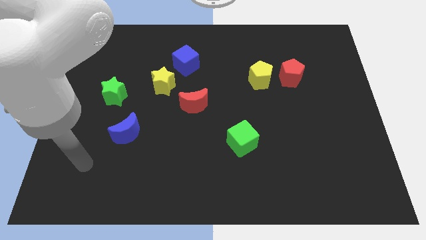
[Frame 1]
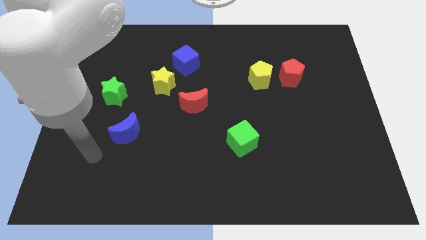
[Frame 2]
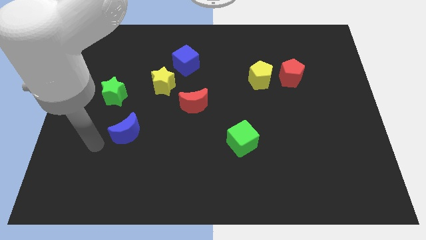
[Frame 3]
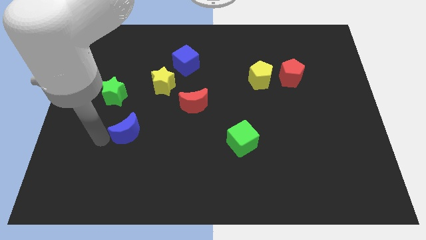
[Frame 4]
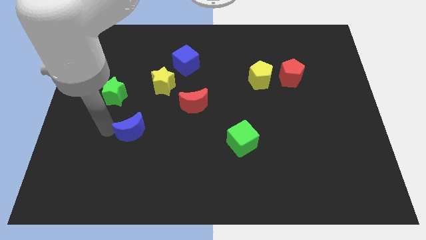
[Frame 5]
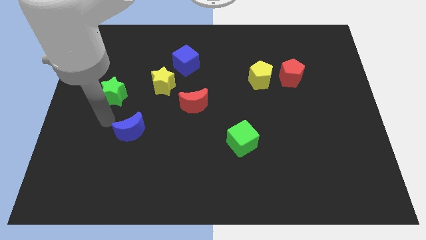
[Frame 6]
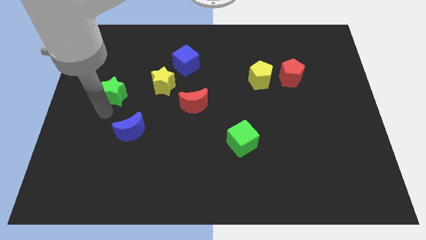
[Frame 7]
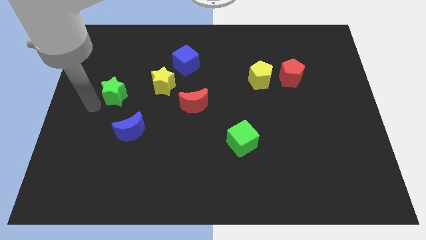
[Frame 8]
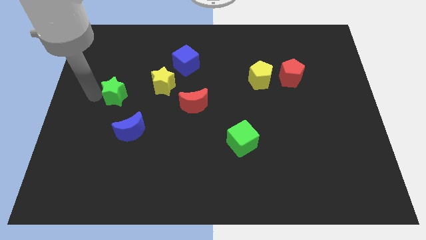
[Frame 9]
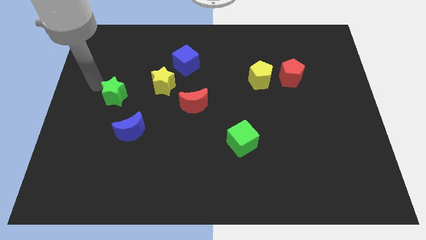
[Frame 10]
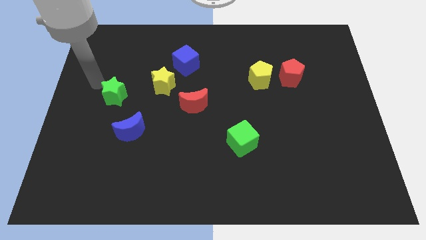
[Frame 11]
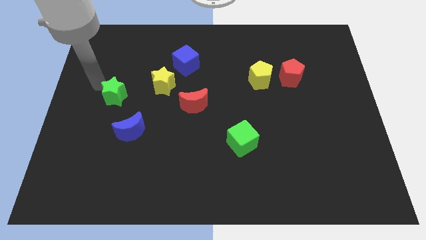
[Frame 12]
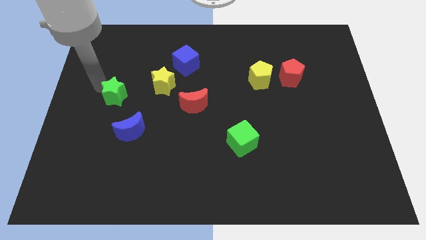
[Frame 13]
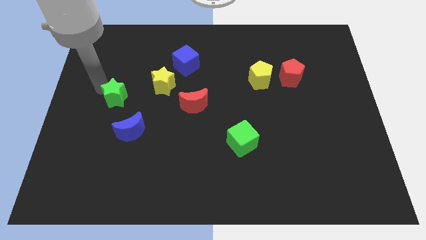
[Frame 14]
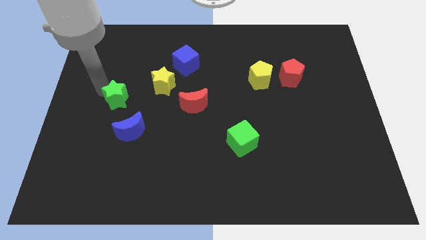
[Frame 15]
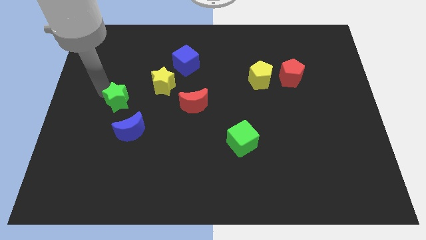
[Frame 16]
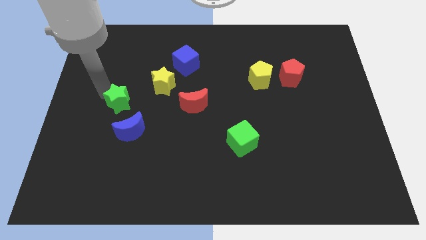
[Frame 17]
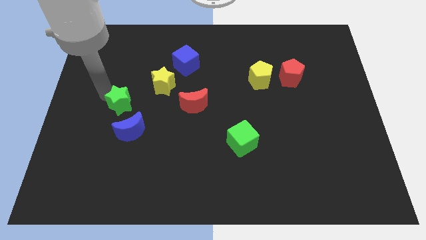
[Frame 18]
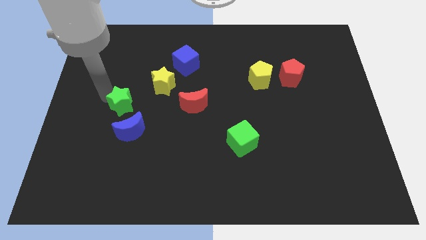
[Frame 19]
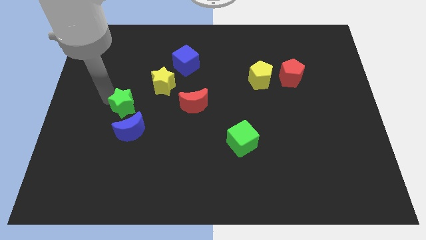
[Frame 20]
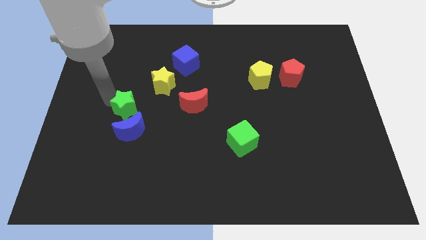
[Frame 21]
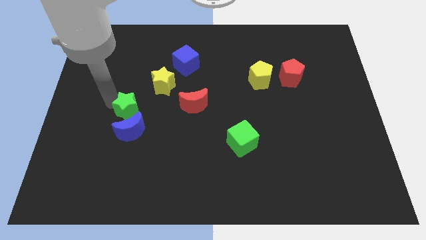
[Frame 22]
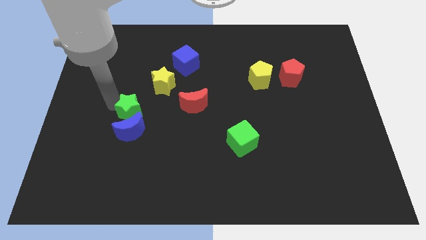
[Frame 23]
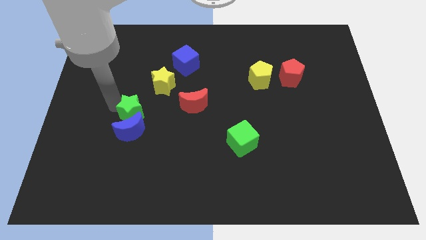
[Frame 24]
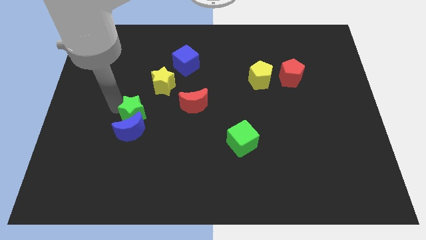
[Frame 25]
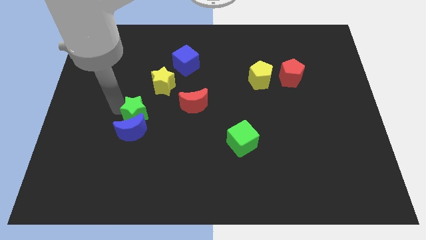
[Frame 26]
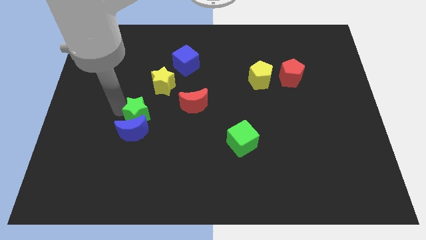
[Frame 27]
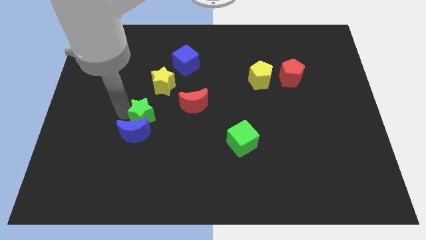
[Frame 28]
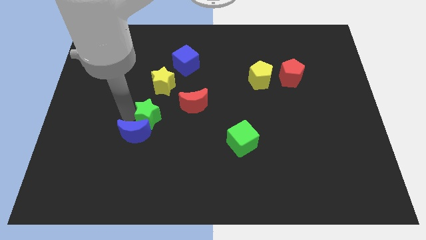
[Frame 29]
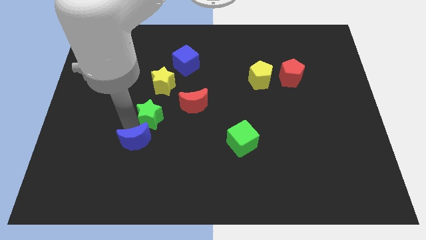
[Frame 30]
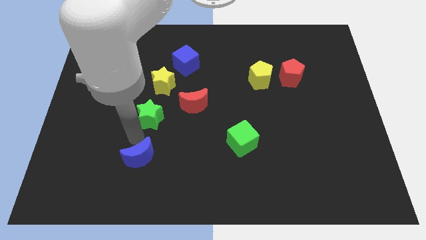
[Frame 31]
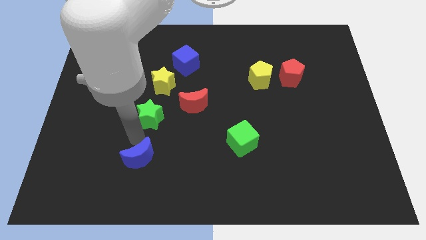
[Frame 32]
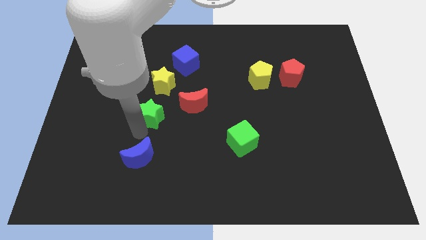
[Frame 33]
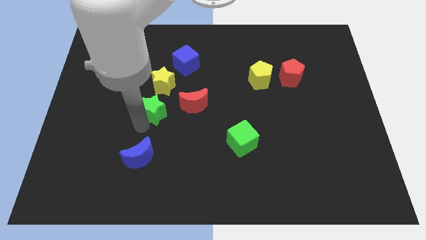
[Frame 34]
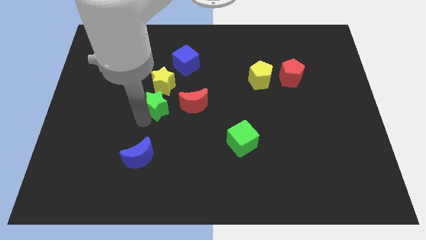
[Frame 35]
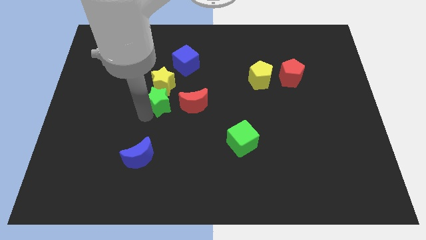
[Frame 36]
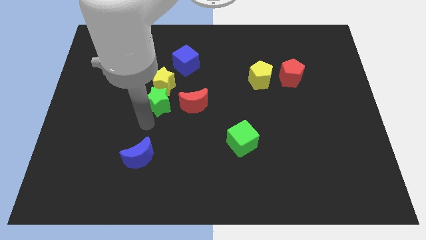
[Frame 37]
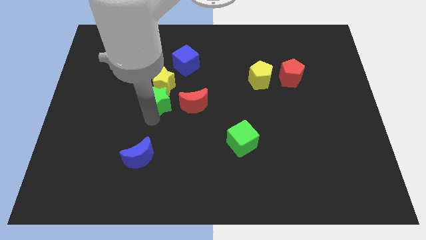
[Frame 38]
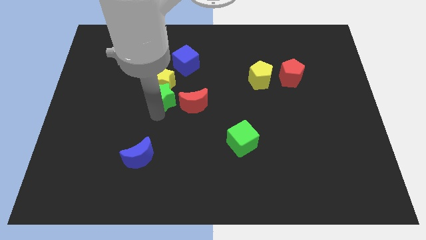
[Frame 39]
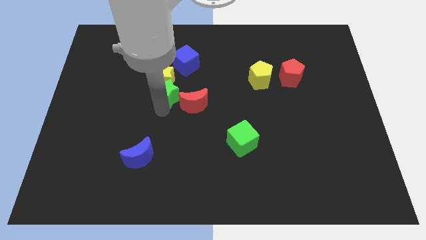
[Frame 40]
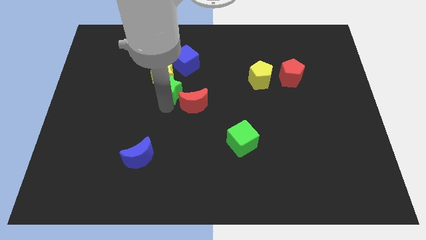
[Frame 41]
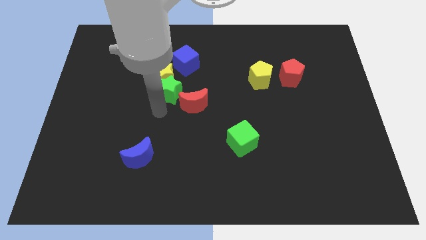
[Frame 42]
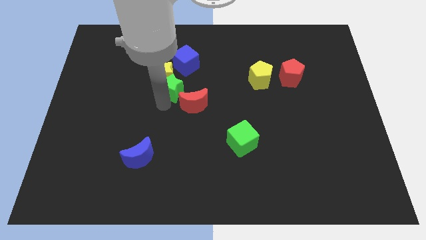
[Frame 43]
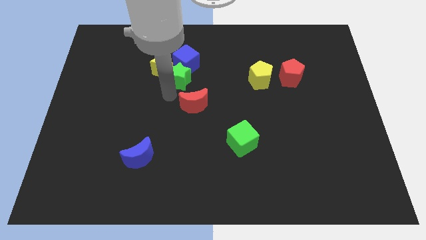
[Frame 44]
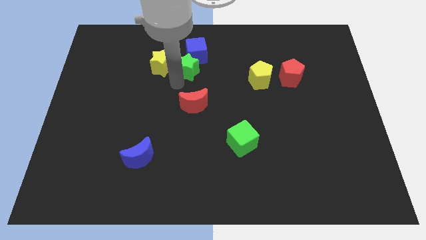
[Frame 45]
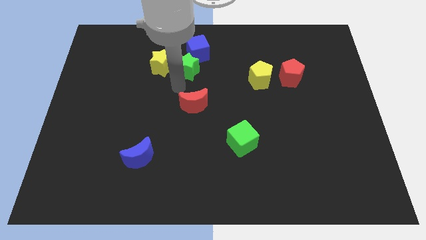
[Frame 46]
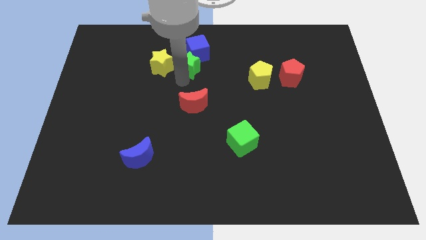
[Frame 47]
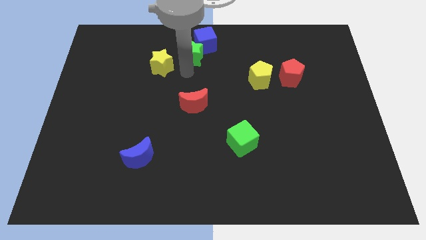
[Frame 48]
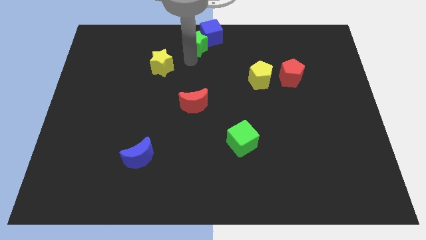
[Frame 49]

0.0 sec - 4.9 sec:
slide the green star to the top side

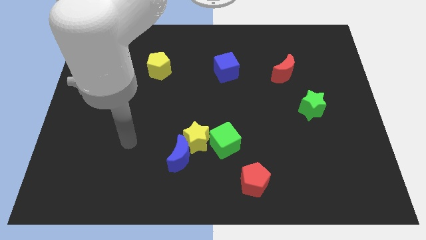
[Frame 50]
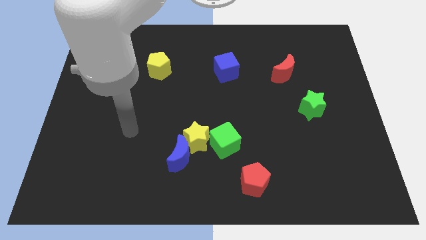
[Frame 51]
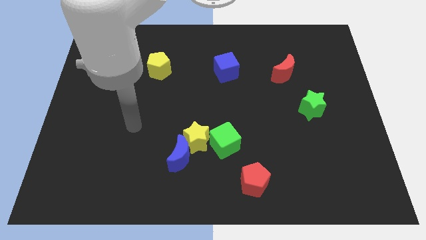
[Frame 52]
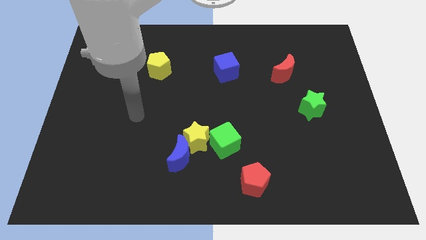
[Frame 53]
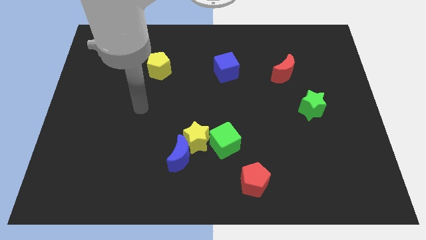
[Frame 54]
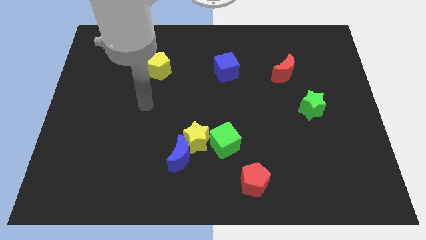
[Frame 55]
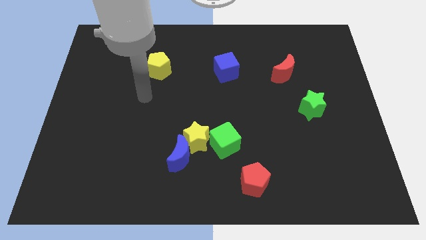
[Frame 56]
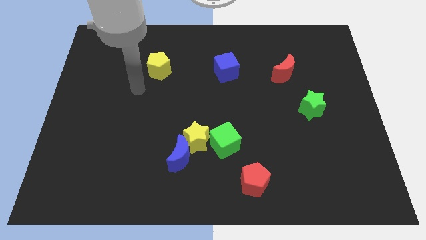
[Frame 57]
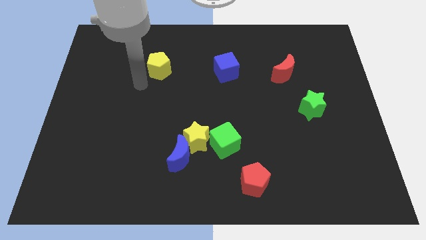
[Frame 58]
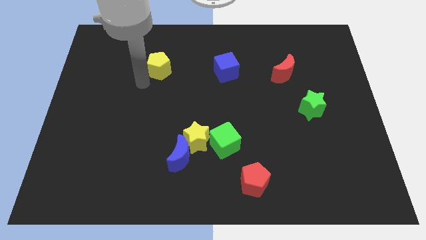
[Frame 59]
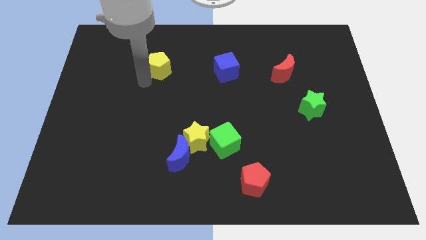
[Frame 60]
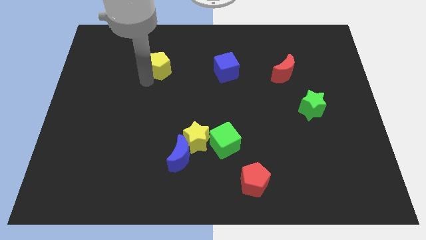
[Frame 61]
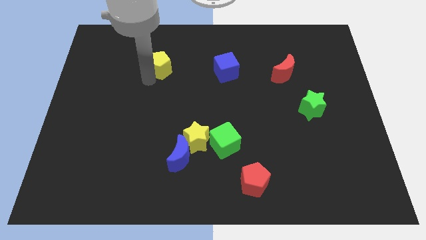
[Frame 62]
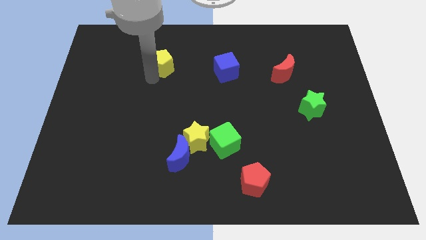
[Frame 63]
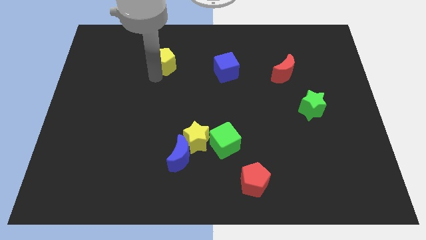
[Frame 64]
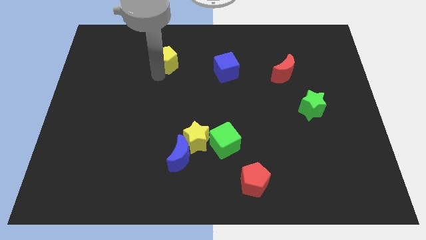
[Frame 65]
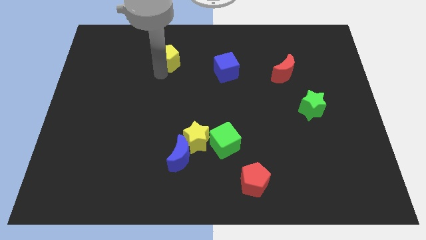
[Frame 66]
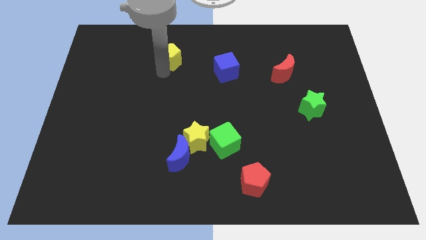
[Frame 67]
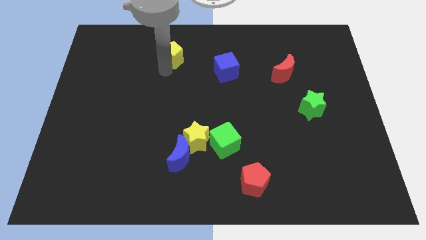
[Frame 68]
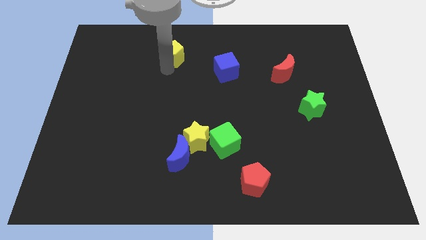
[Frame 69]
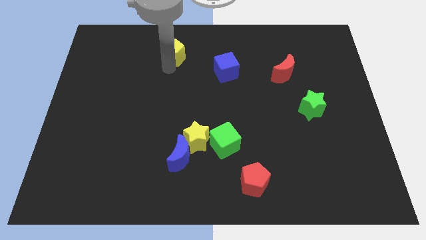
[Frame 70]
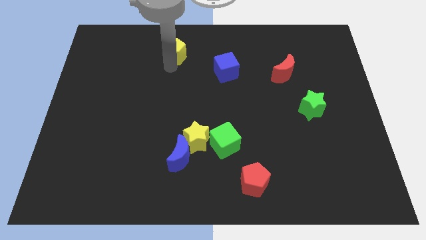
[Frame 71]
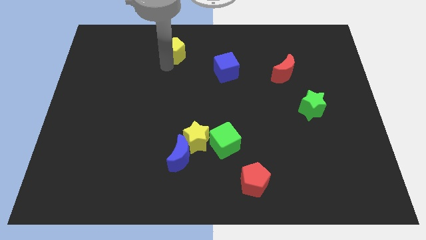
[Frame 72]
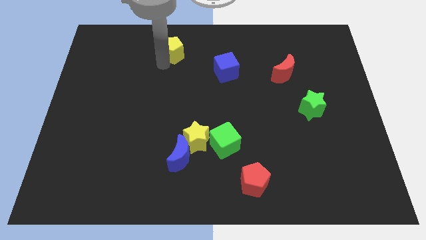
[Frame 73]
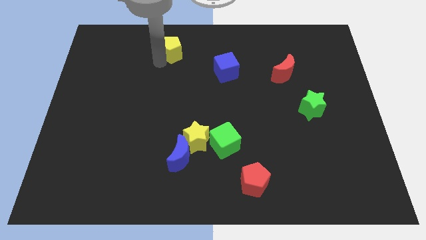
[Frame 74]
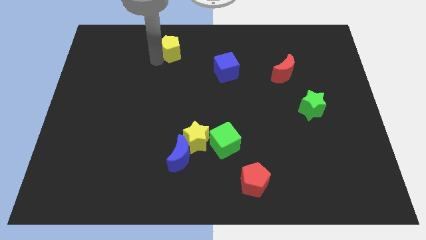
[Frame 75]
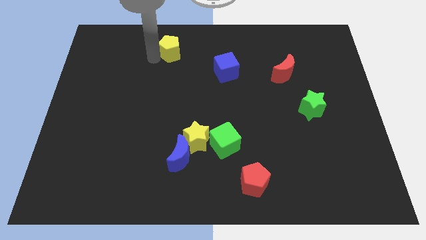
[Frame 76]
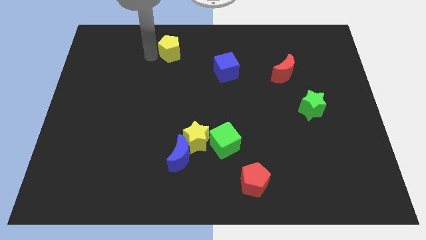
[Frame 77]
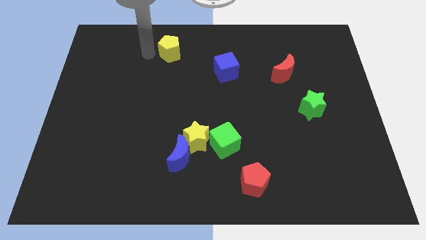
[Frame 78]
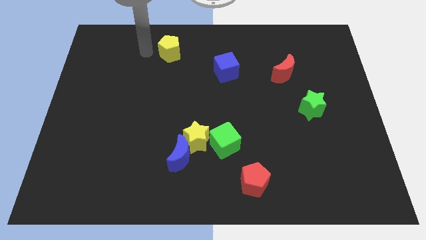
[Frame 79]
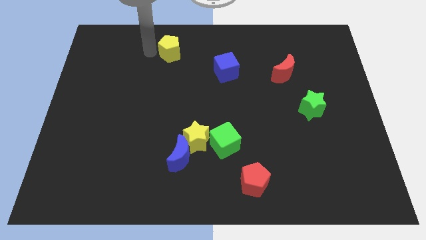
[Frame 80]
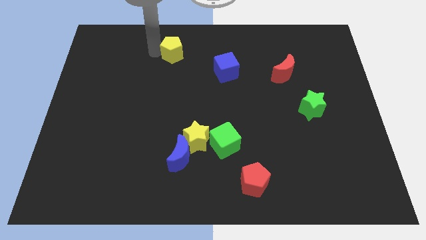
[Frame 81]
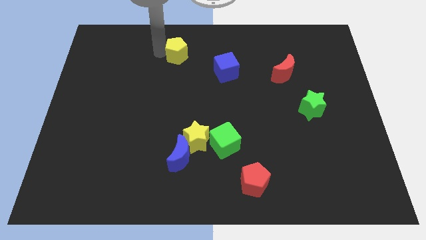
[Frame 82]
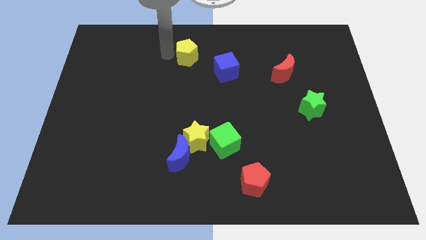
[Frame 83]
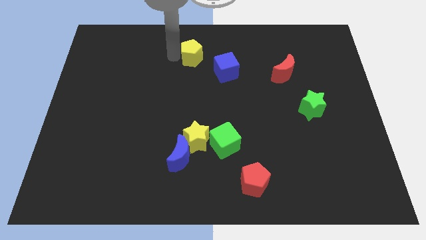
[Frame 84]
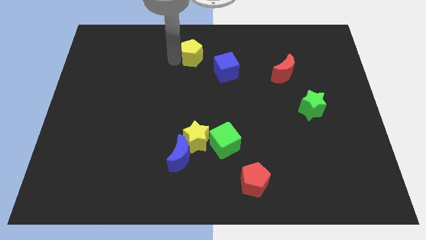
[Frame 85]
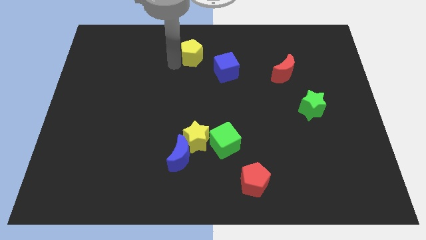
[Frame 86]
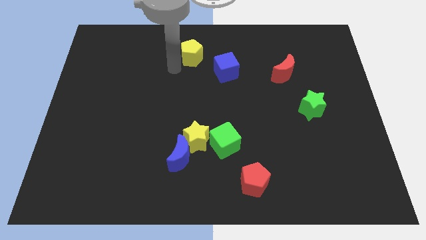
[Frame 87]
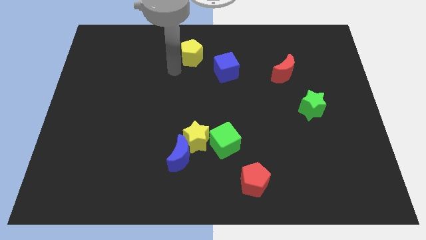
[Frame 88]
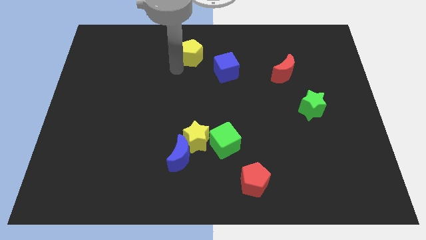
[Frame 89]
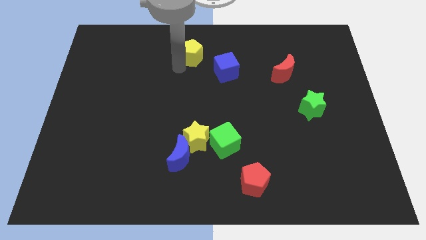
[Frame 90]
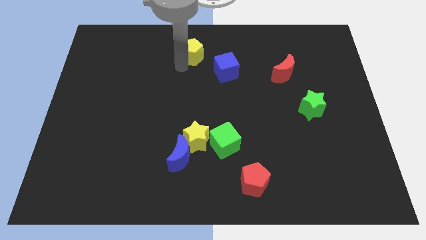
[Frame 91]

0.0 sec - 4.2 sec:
move the yellow pentagon to the towards your base
